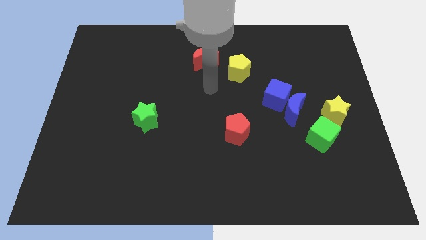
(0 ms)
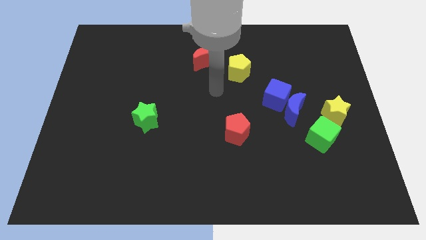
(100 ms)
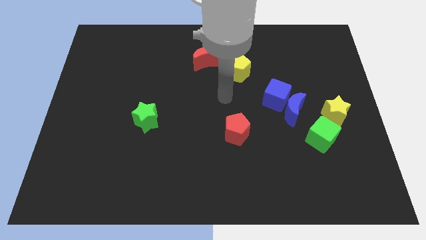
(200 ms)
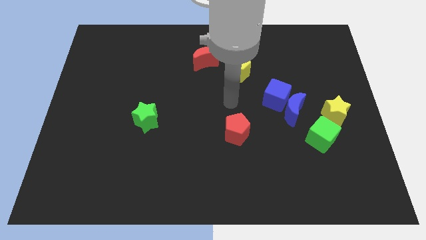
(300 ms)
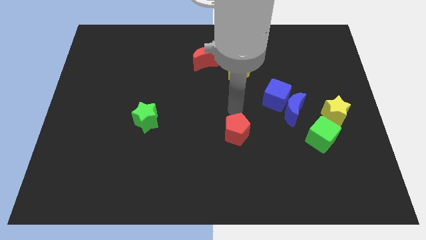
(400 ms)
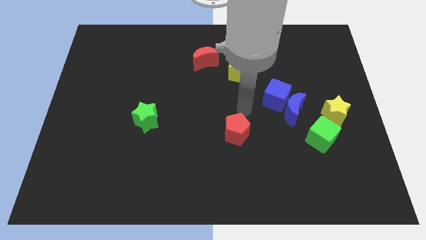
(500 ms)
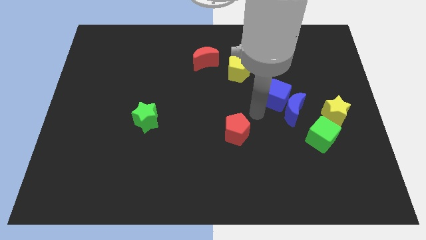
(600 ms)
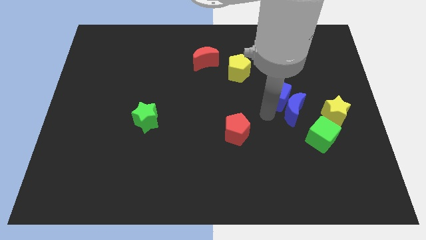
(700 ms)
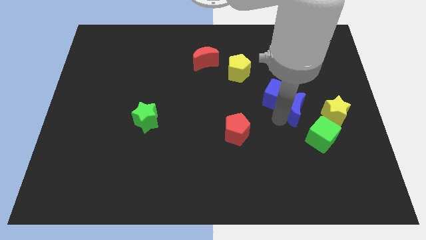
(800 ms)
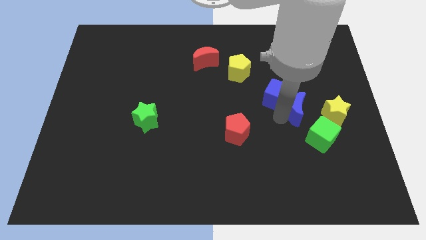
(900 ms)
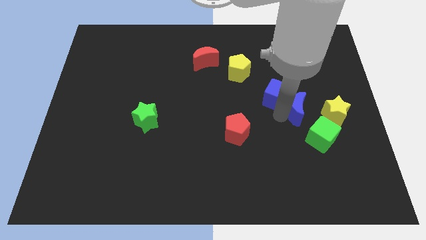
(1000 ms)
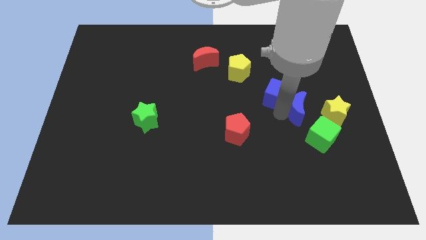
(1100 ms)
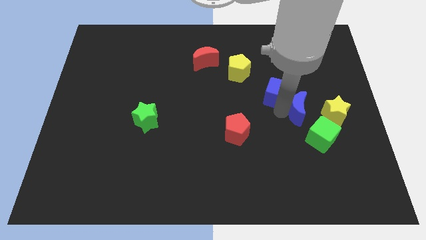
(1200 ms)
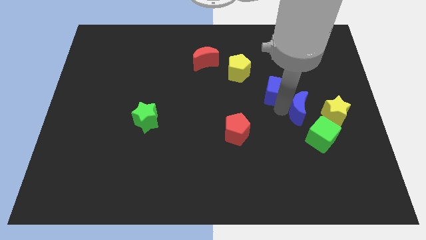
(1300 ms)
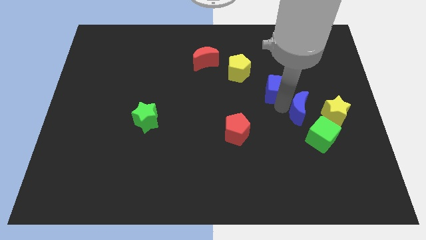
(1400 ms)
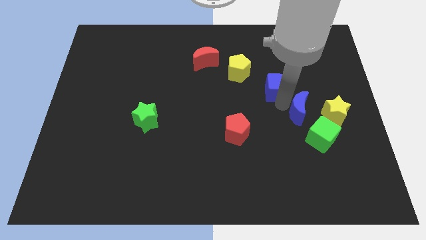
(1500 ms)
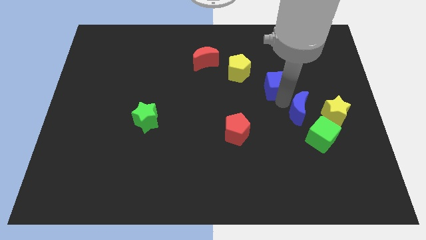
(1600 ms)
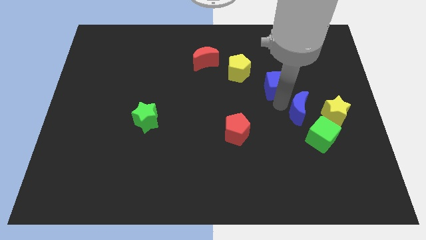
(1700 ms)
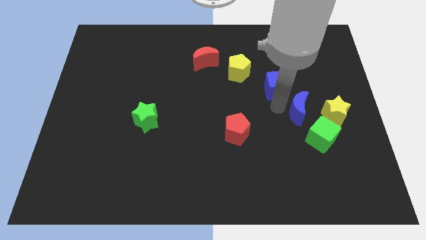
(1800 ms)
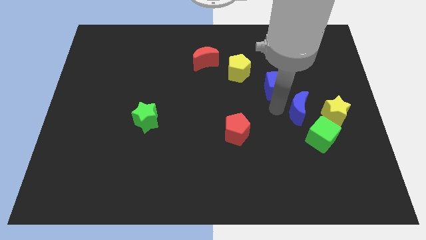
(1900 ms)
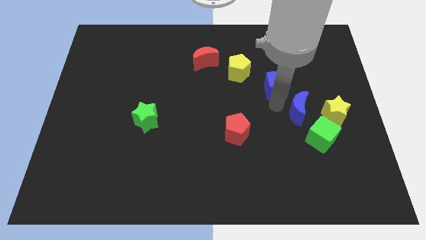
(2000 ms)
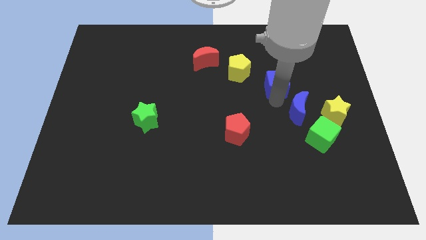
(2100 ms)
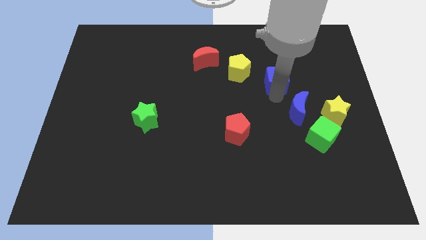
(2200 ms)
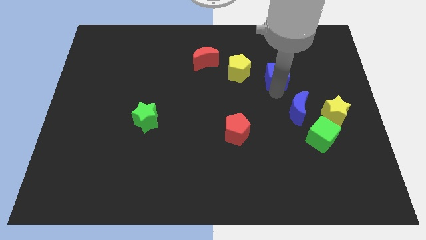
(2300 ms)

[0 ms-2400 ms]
move the blue cube away from the blue moon

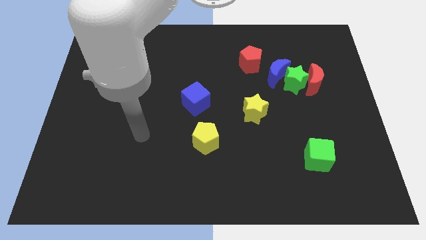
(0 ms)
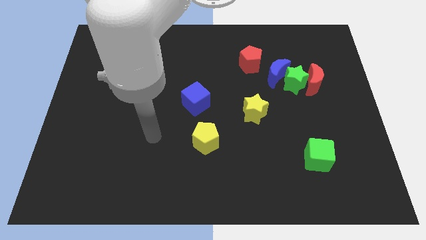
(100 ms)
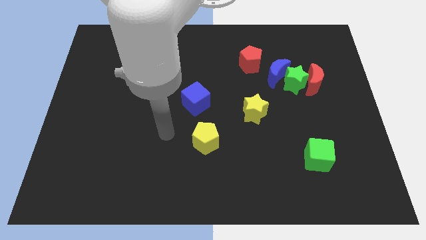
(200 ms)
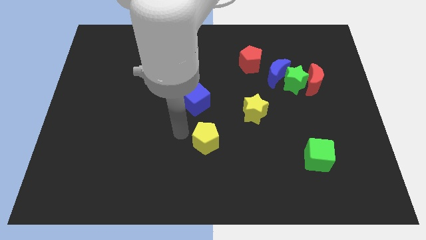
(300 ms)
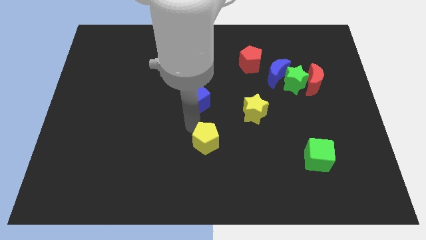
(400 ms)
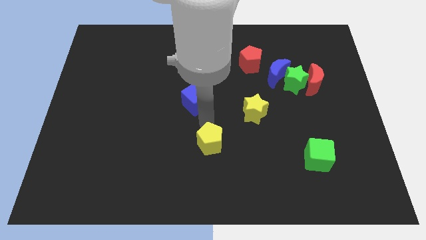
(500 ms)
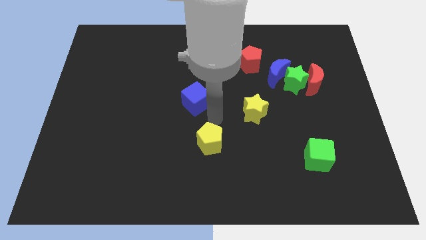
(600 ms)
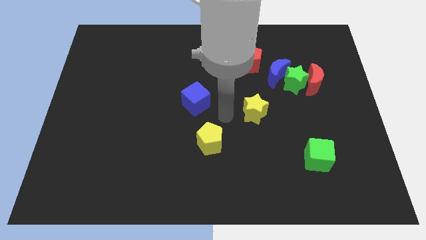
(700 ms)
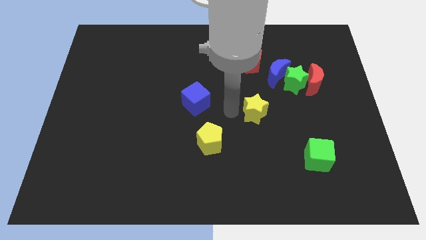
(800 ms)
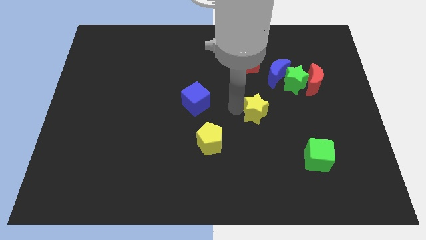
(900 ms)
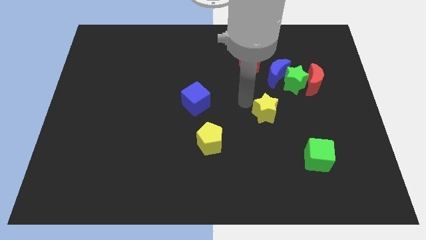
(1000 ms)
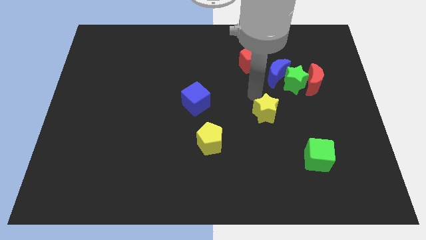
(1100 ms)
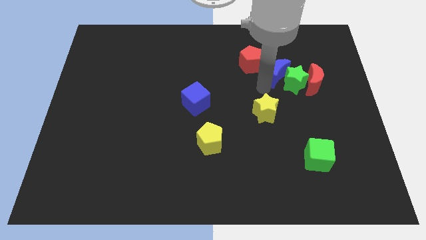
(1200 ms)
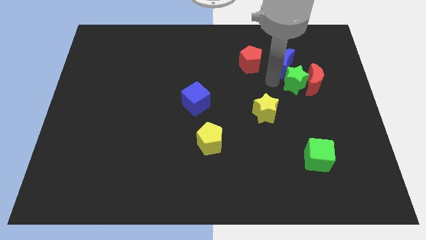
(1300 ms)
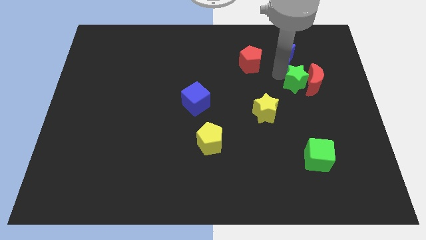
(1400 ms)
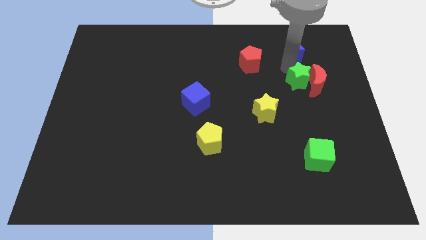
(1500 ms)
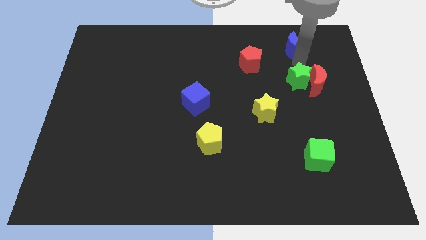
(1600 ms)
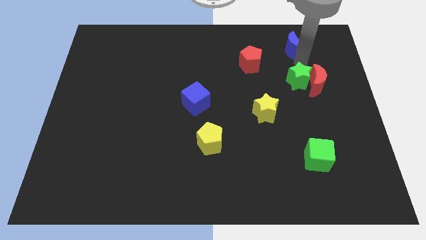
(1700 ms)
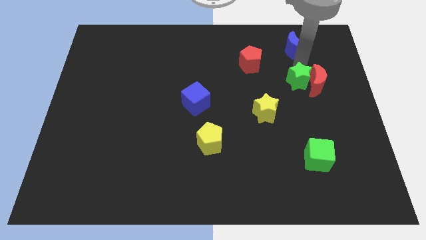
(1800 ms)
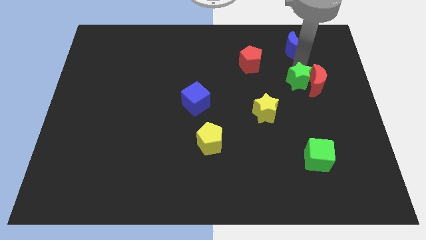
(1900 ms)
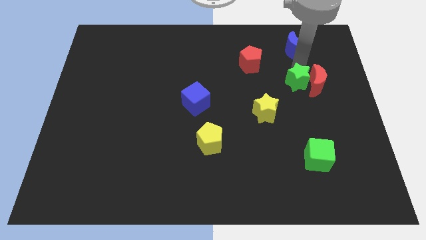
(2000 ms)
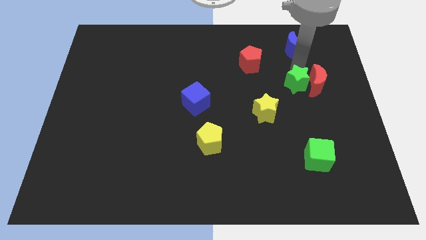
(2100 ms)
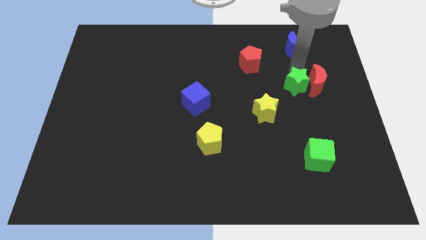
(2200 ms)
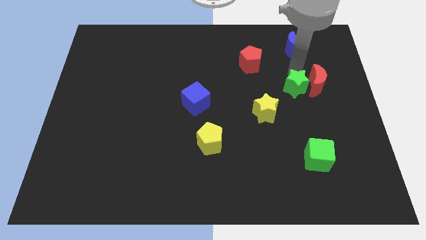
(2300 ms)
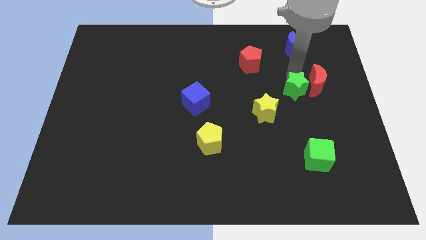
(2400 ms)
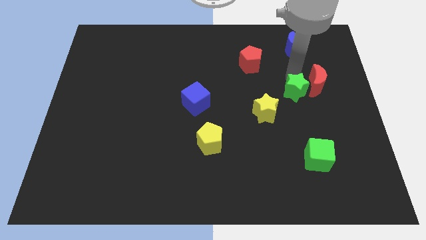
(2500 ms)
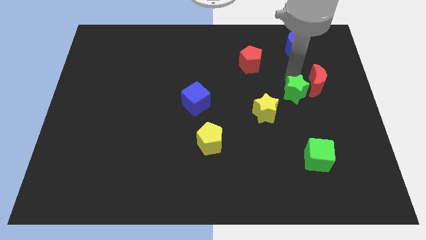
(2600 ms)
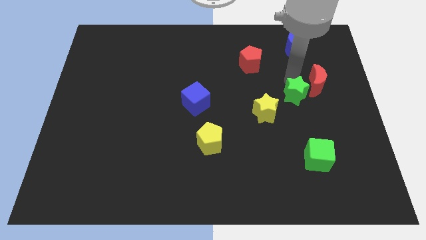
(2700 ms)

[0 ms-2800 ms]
separate the green star from the red moon and blue moon

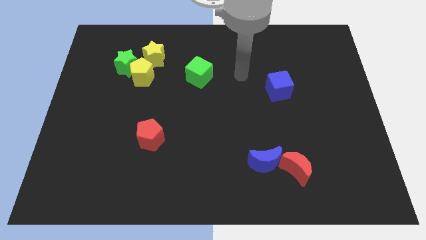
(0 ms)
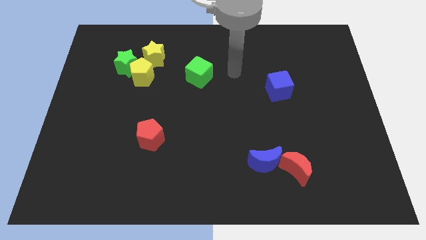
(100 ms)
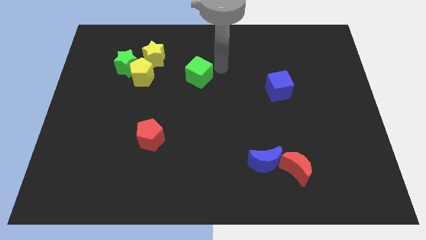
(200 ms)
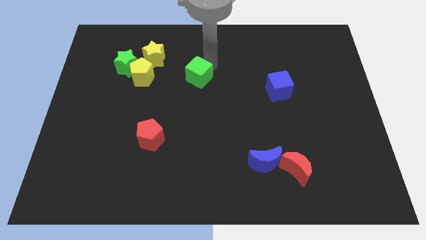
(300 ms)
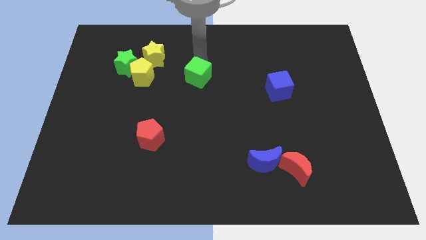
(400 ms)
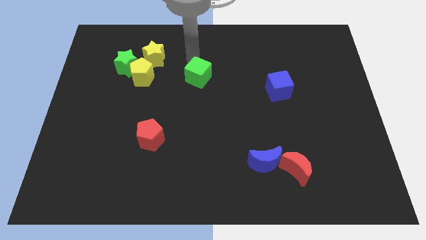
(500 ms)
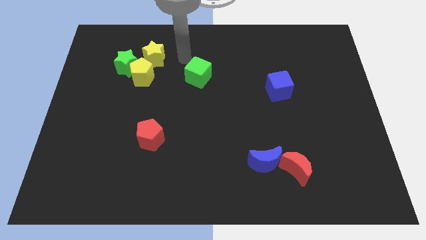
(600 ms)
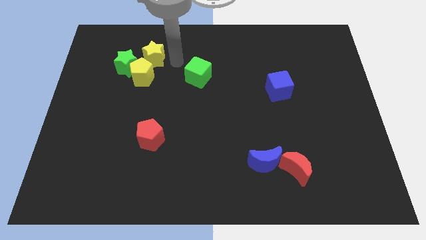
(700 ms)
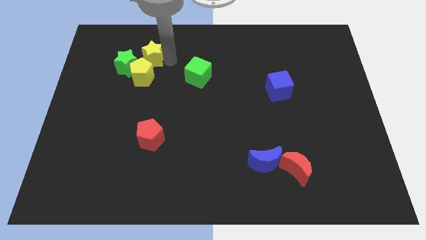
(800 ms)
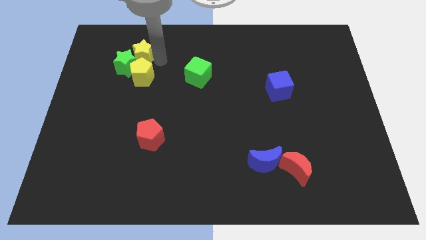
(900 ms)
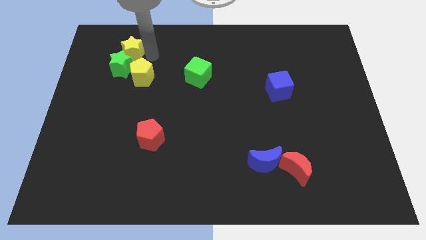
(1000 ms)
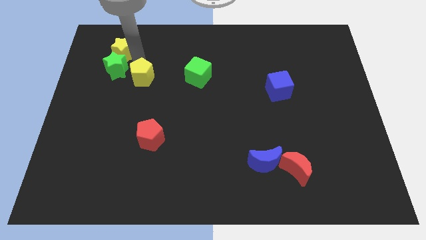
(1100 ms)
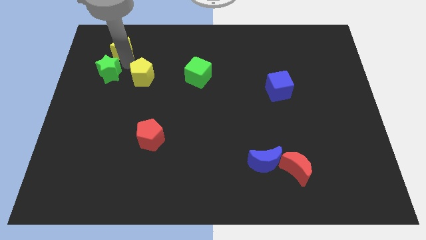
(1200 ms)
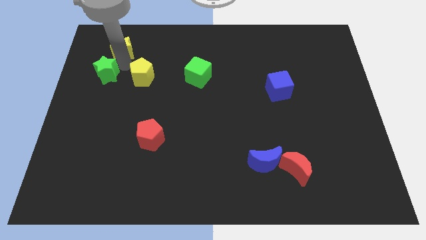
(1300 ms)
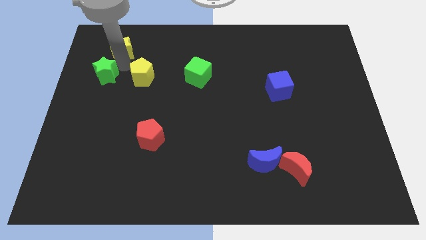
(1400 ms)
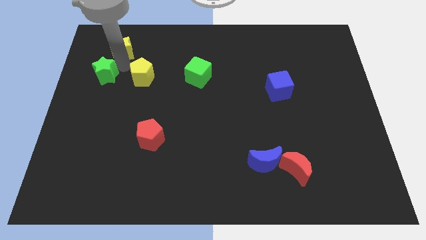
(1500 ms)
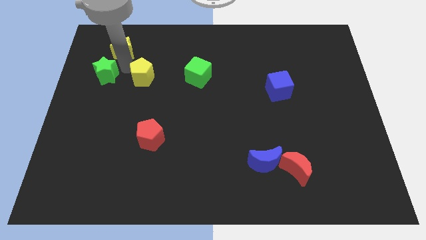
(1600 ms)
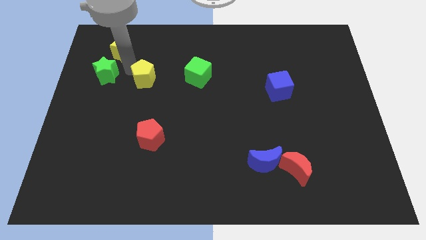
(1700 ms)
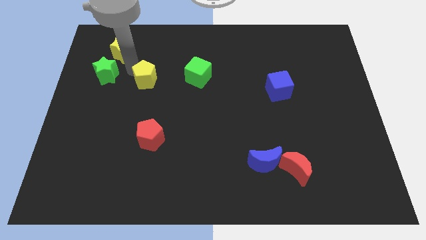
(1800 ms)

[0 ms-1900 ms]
pull the yellow pentagon apart from the green star and yellow star

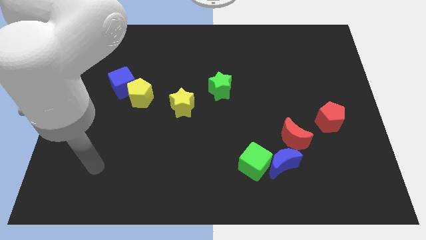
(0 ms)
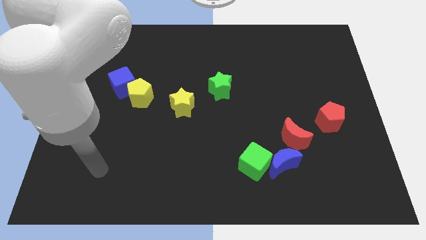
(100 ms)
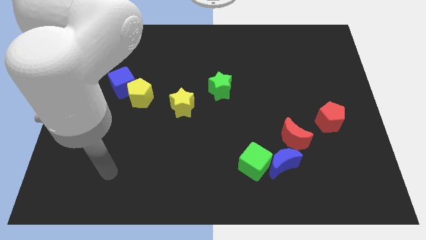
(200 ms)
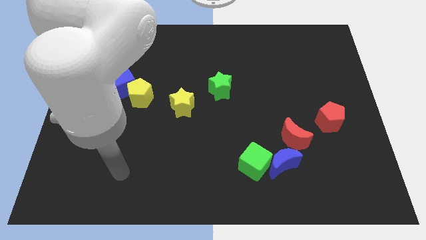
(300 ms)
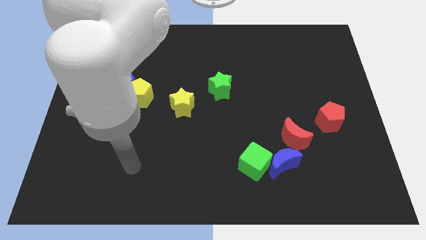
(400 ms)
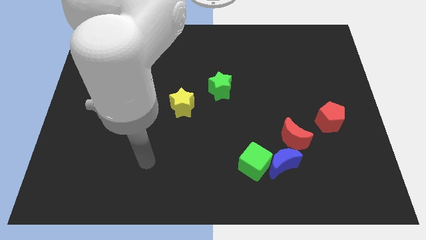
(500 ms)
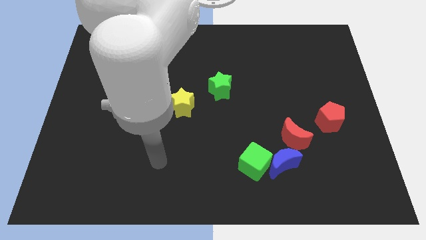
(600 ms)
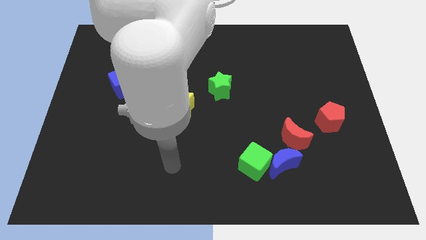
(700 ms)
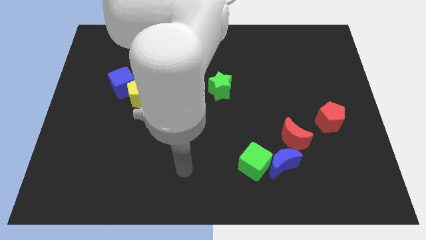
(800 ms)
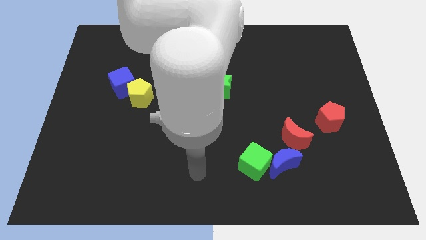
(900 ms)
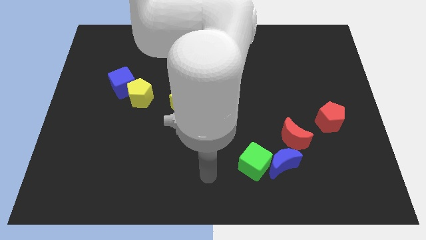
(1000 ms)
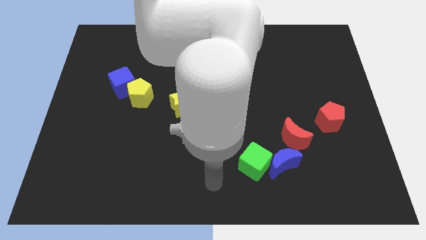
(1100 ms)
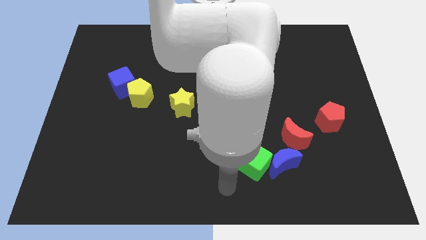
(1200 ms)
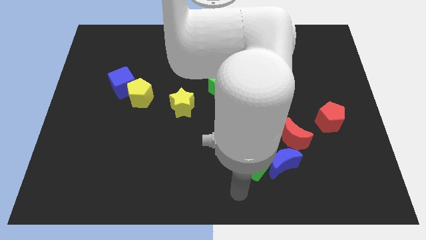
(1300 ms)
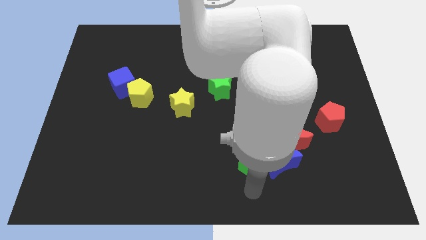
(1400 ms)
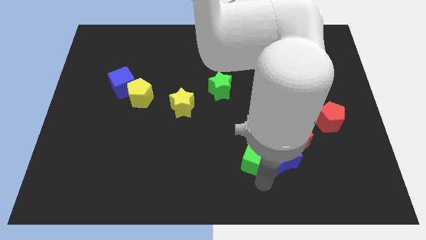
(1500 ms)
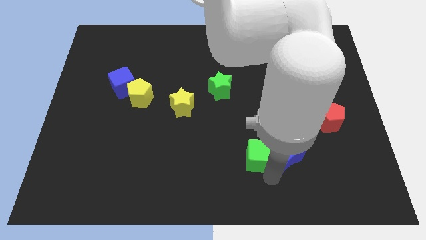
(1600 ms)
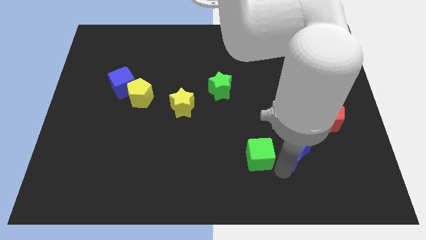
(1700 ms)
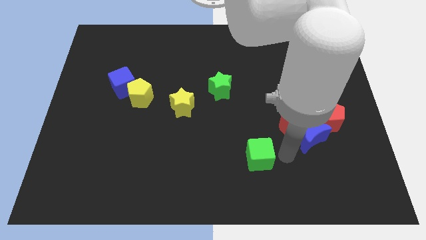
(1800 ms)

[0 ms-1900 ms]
separate the green cube from the blue moon

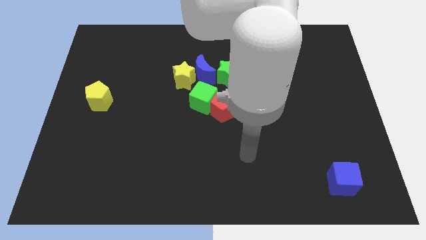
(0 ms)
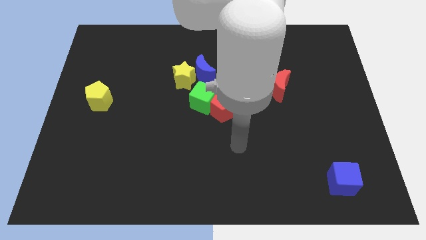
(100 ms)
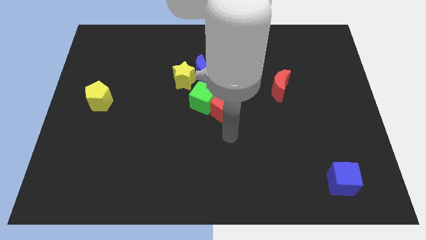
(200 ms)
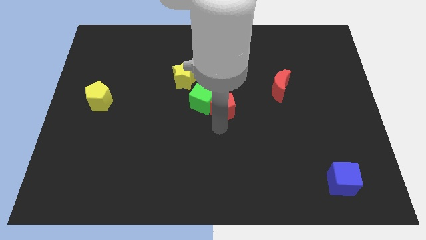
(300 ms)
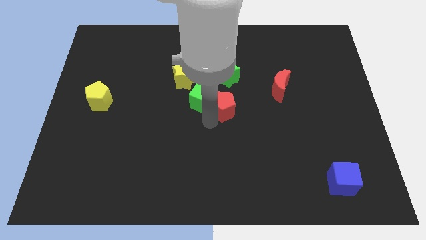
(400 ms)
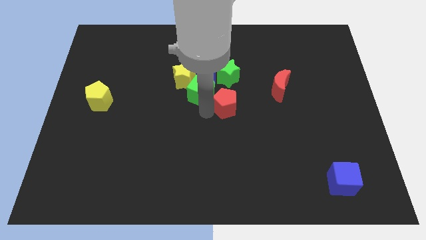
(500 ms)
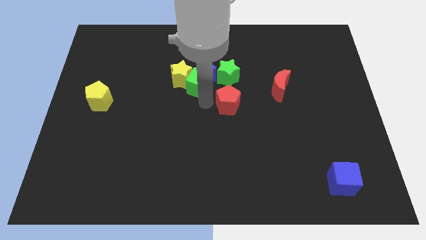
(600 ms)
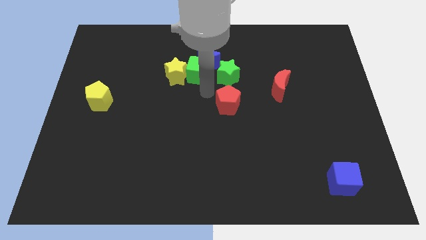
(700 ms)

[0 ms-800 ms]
move the red pentagon away from the green cube
